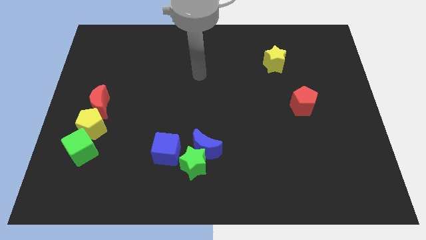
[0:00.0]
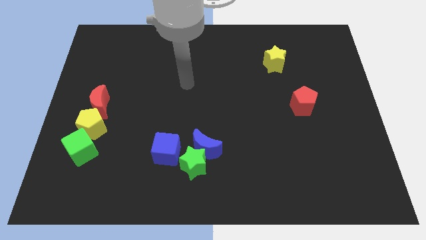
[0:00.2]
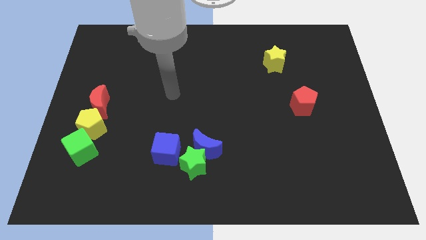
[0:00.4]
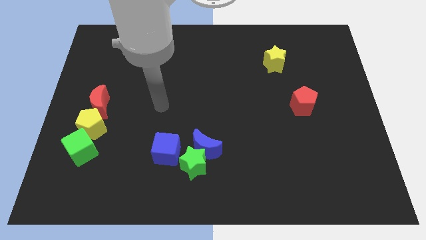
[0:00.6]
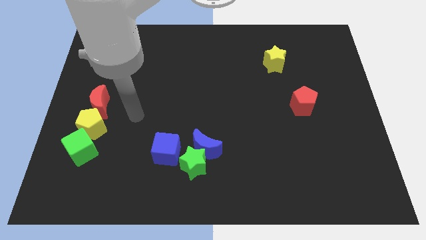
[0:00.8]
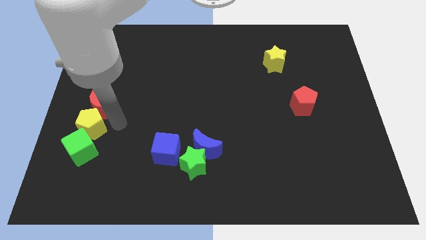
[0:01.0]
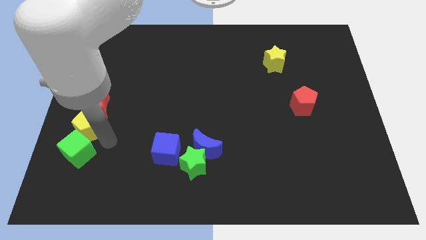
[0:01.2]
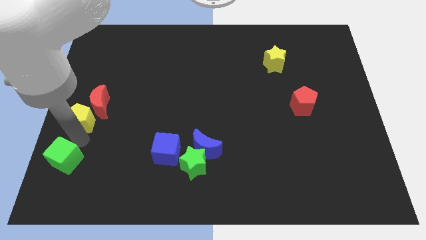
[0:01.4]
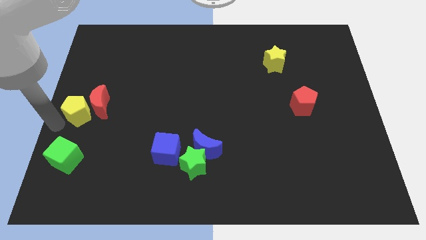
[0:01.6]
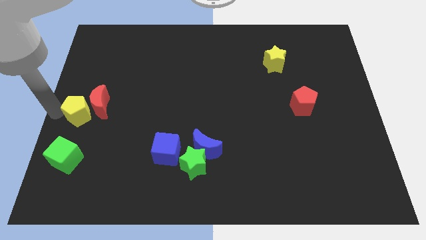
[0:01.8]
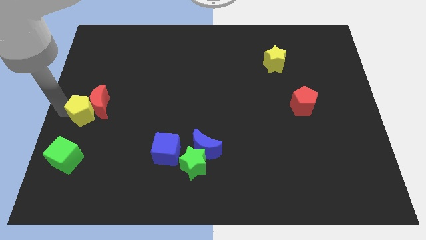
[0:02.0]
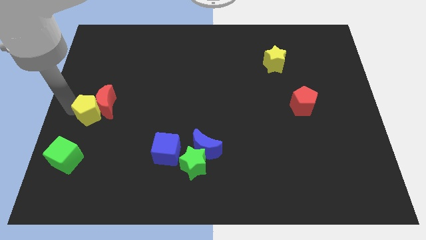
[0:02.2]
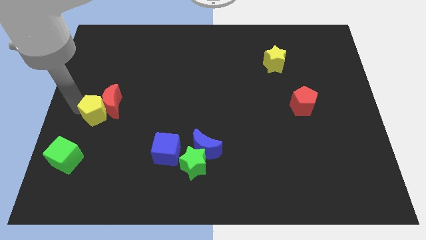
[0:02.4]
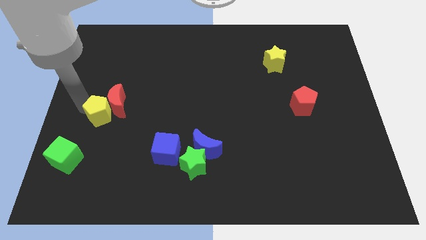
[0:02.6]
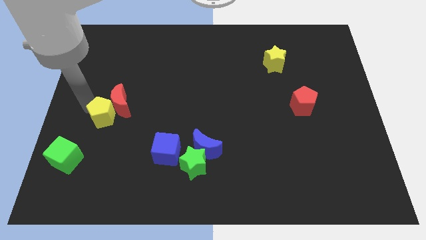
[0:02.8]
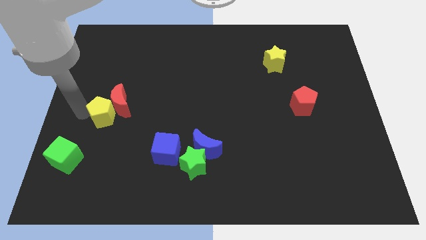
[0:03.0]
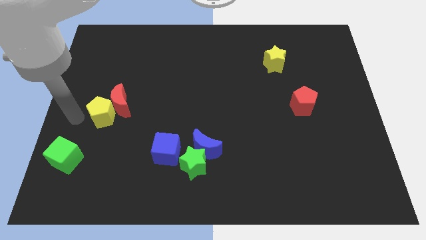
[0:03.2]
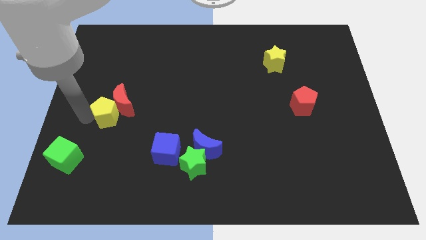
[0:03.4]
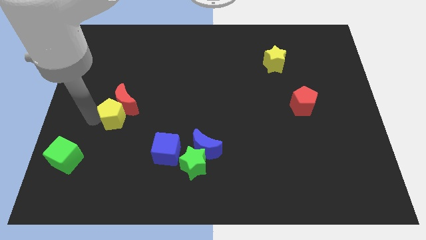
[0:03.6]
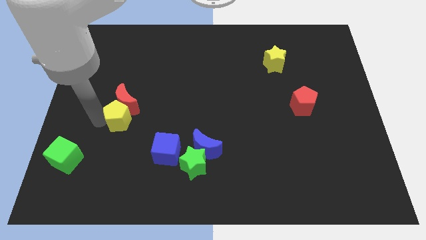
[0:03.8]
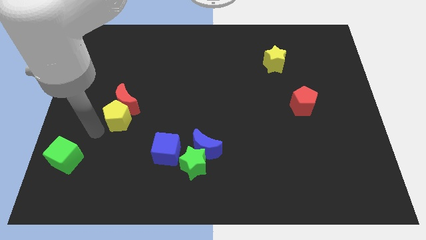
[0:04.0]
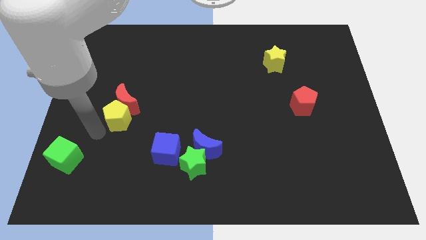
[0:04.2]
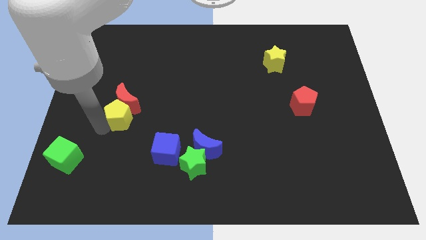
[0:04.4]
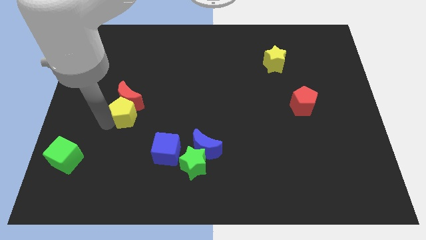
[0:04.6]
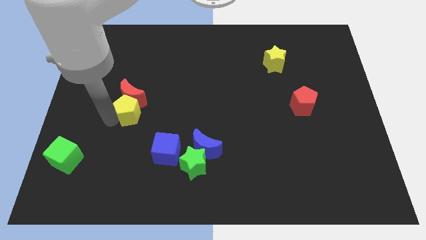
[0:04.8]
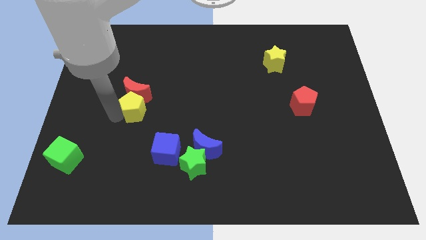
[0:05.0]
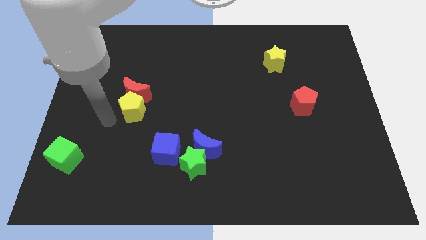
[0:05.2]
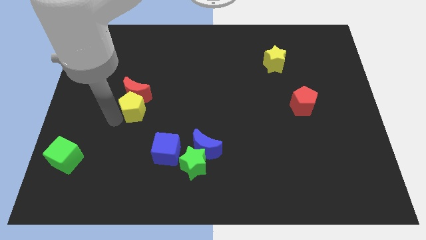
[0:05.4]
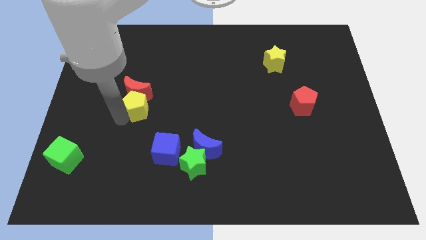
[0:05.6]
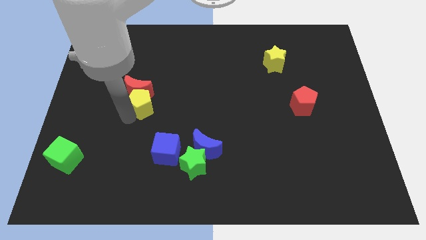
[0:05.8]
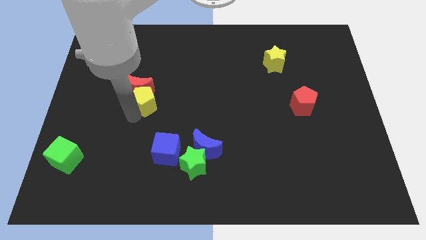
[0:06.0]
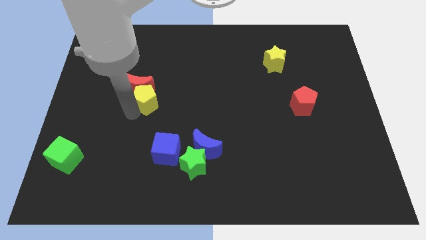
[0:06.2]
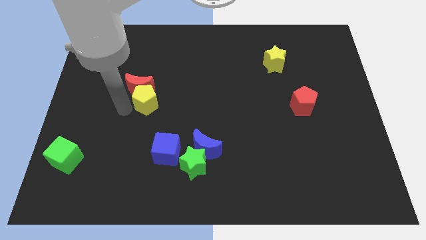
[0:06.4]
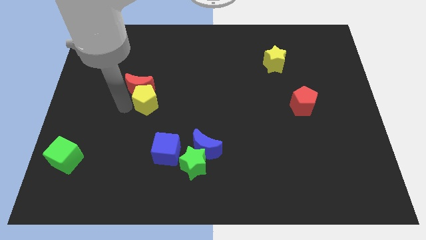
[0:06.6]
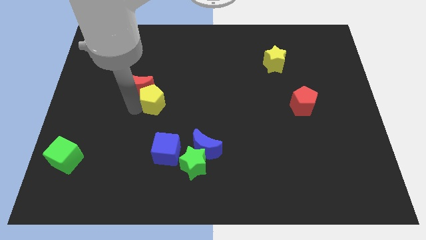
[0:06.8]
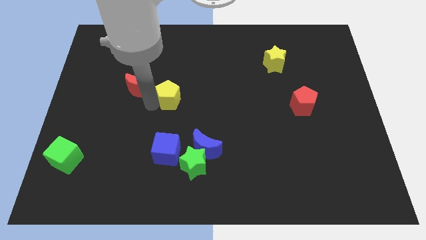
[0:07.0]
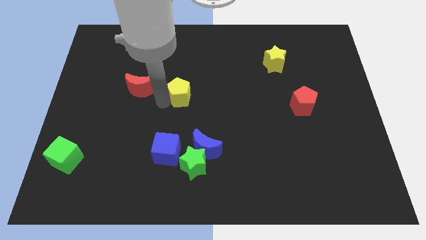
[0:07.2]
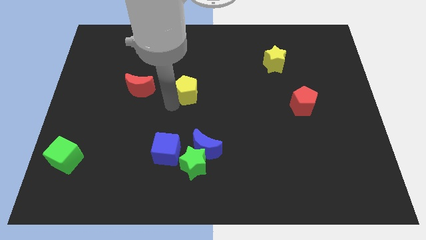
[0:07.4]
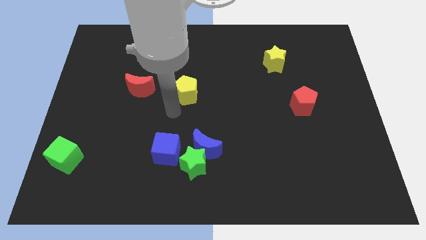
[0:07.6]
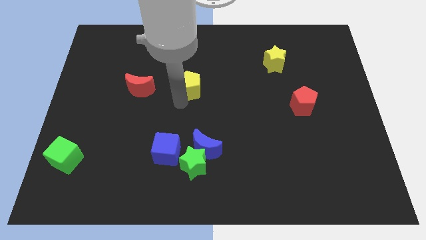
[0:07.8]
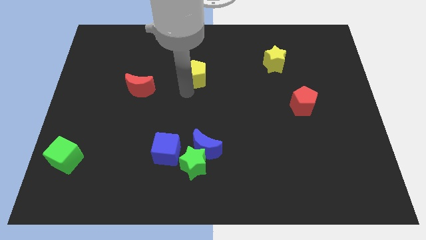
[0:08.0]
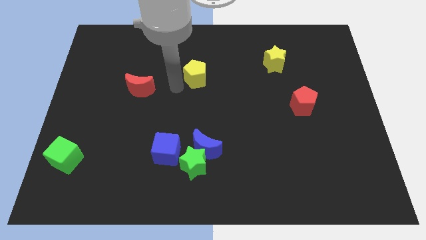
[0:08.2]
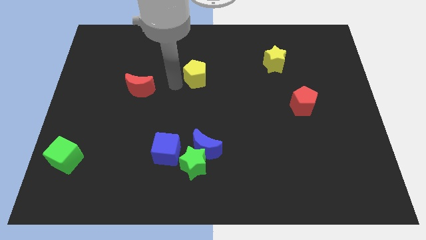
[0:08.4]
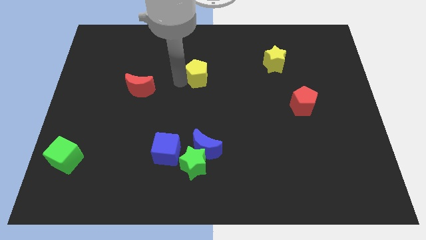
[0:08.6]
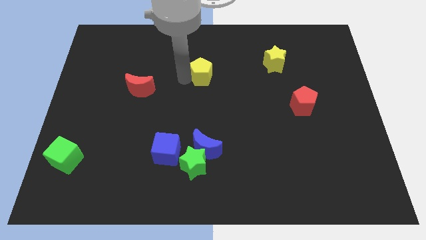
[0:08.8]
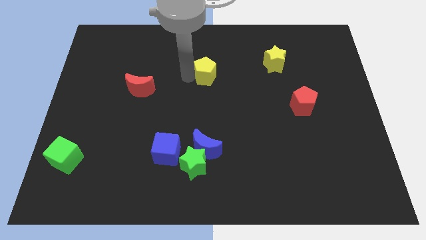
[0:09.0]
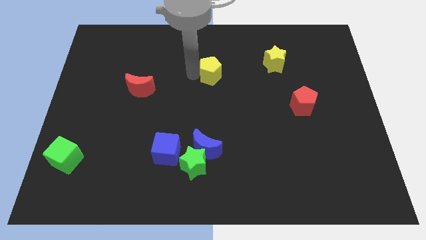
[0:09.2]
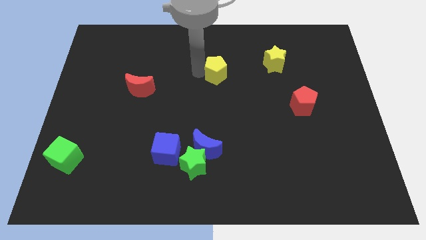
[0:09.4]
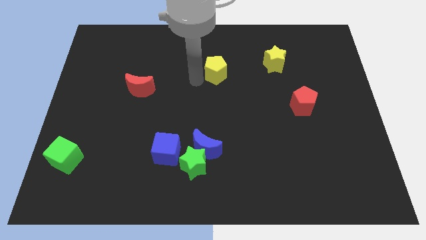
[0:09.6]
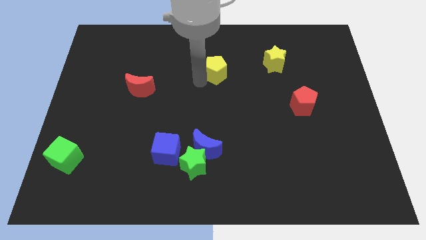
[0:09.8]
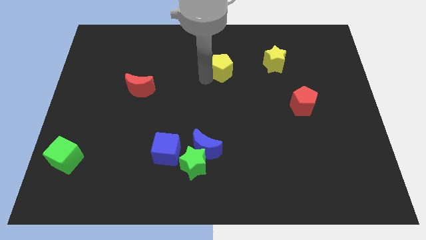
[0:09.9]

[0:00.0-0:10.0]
move the yellow pentagon left of the yellow star

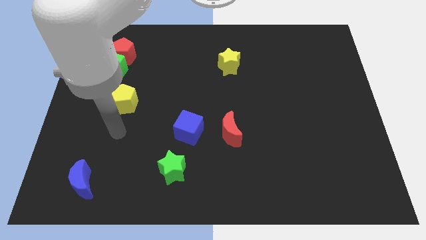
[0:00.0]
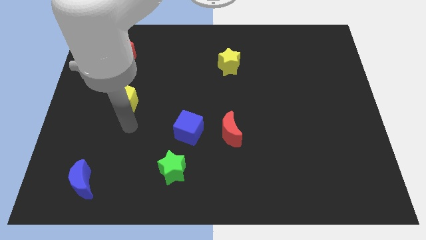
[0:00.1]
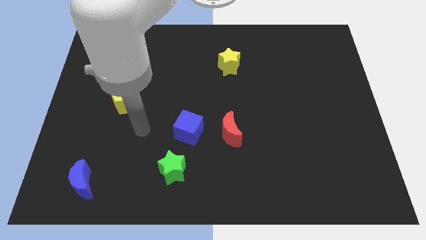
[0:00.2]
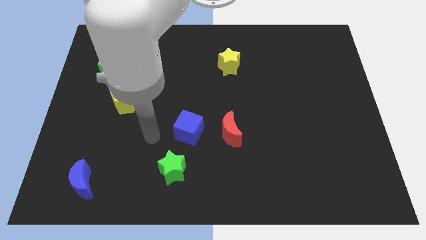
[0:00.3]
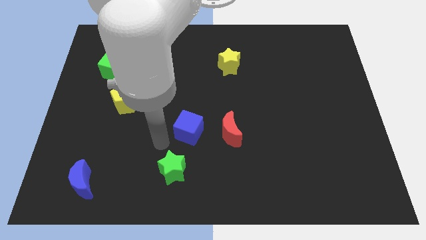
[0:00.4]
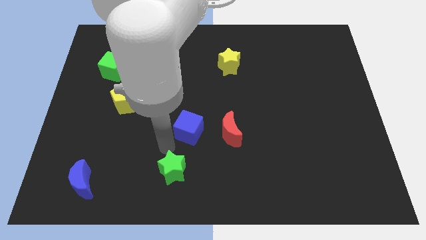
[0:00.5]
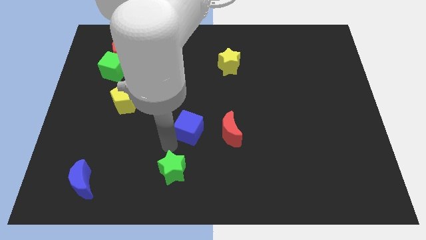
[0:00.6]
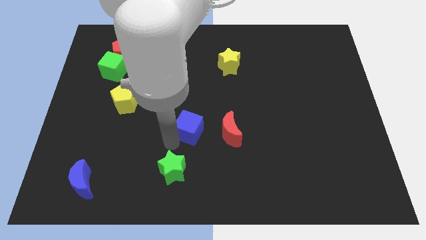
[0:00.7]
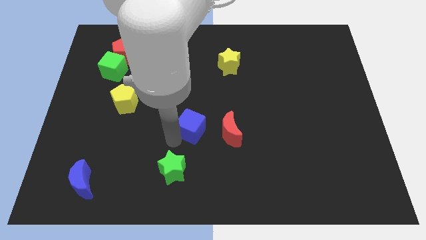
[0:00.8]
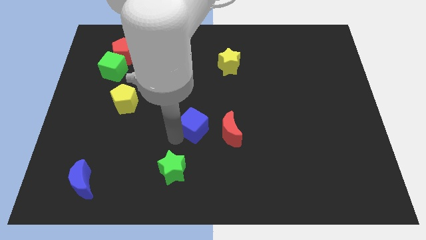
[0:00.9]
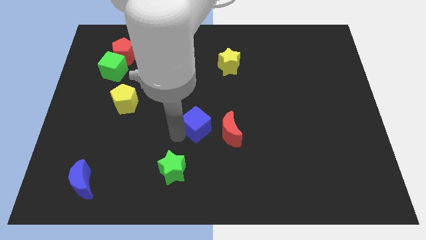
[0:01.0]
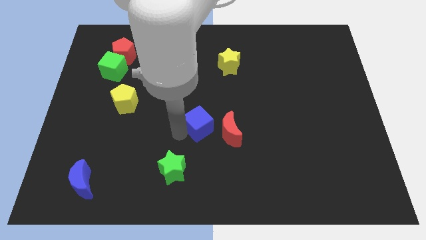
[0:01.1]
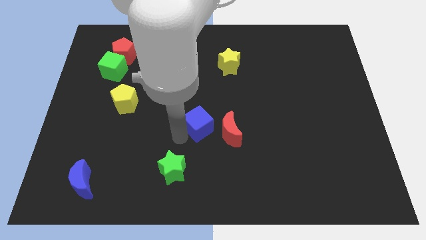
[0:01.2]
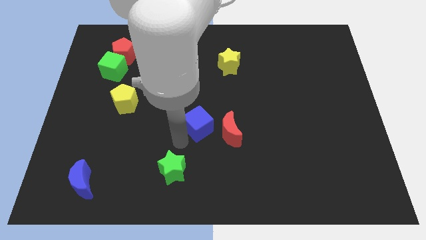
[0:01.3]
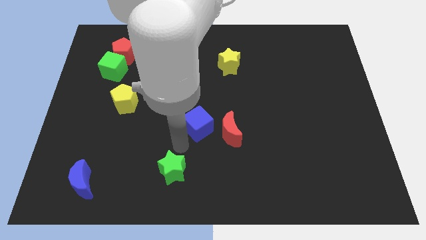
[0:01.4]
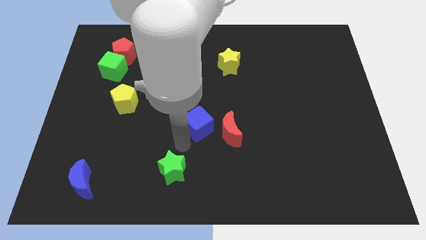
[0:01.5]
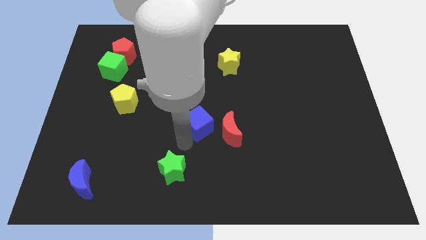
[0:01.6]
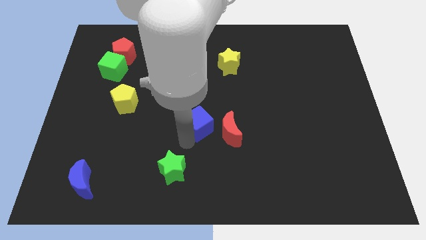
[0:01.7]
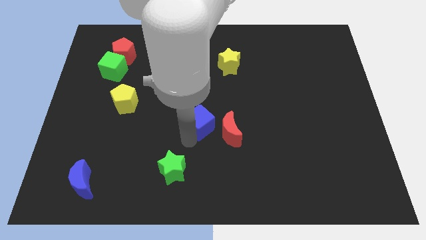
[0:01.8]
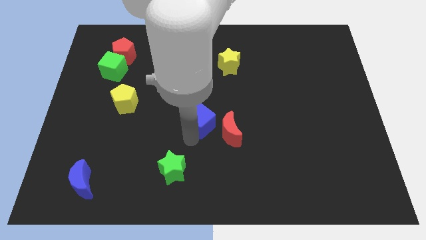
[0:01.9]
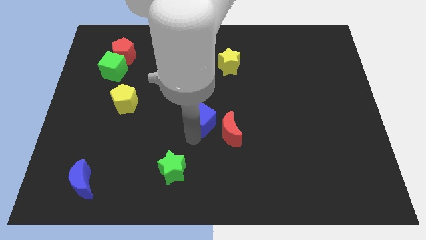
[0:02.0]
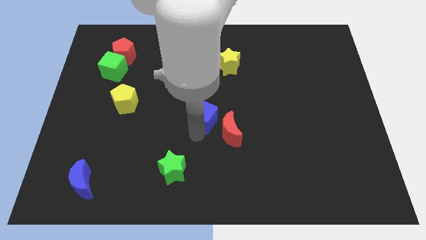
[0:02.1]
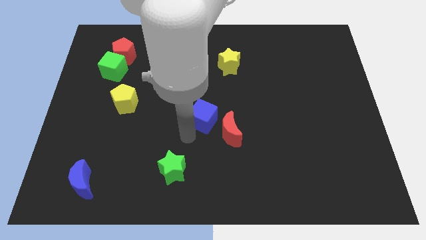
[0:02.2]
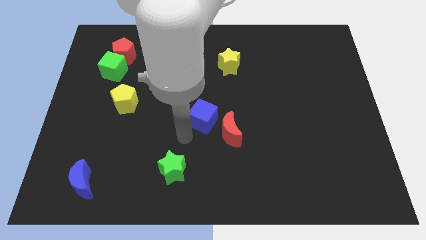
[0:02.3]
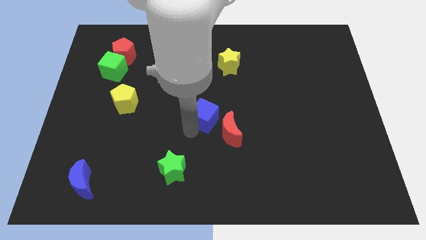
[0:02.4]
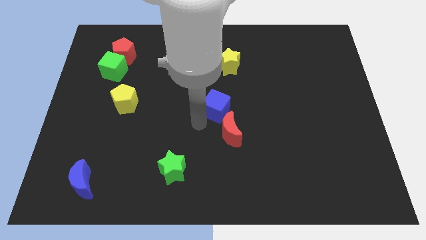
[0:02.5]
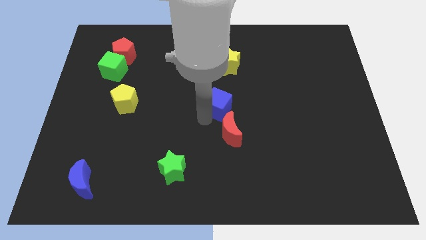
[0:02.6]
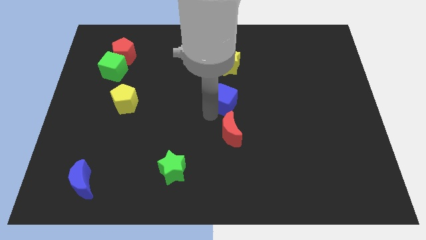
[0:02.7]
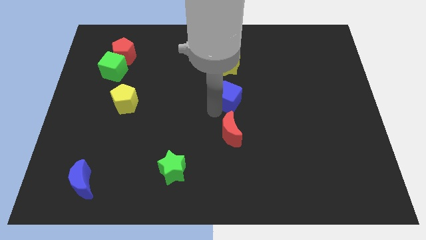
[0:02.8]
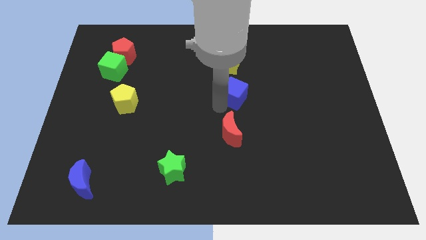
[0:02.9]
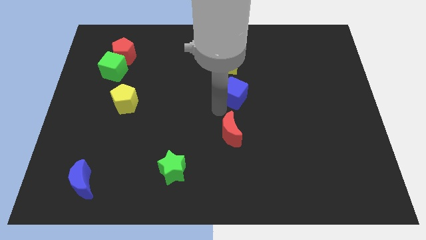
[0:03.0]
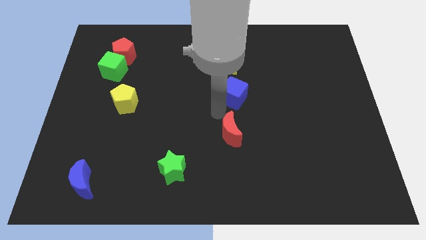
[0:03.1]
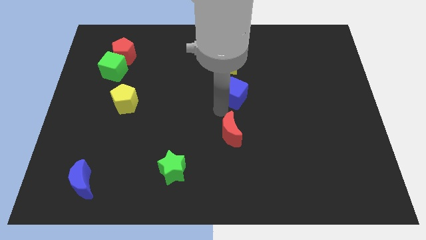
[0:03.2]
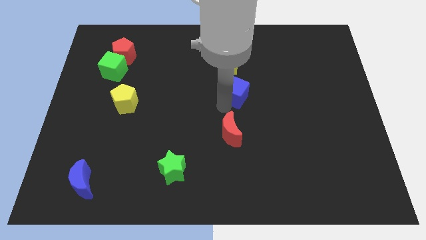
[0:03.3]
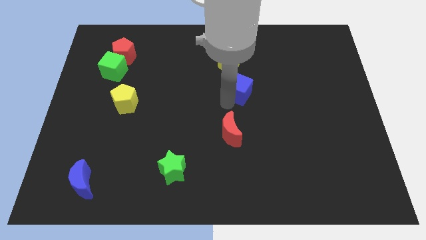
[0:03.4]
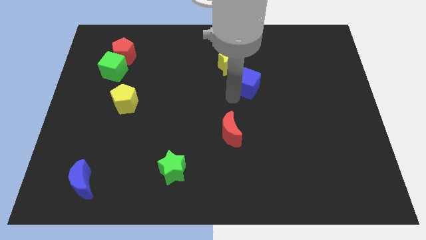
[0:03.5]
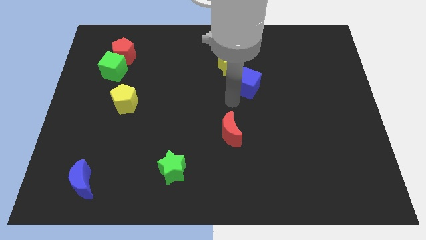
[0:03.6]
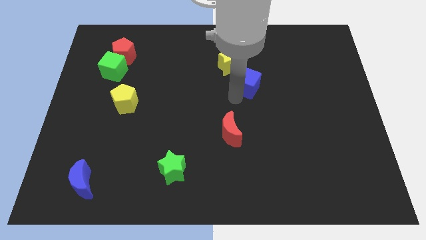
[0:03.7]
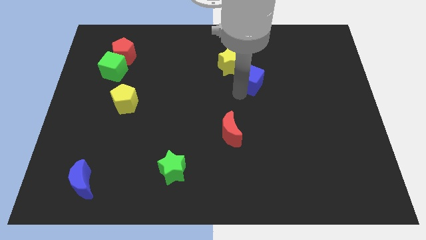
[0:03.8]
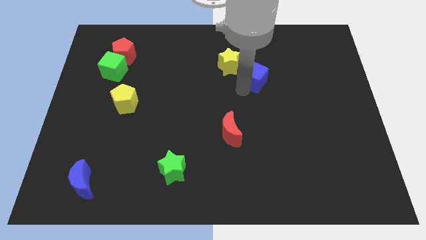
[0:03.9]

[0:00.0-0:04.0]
push the blue cube to the right side of the yellow star
